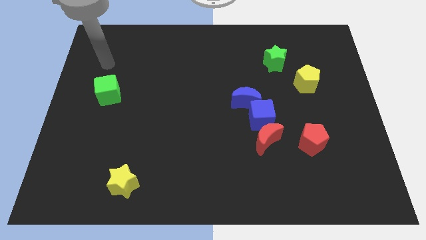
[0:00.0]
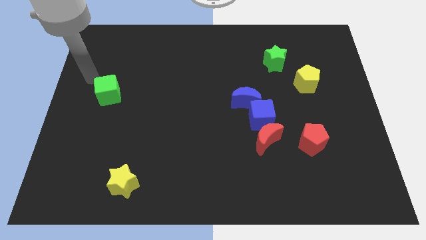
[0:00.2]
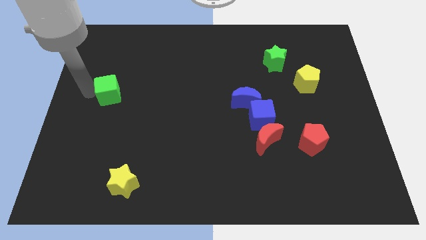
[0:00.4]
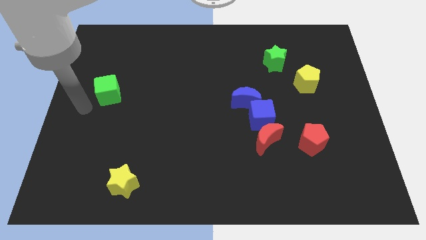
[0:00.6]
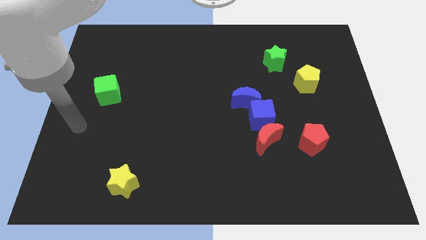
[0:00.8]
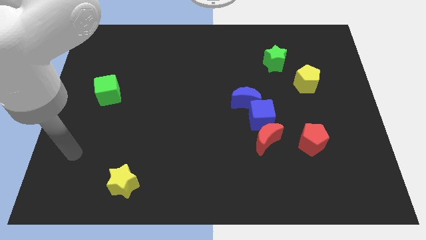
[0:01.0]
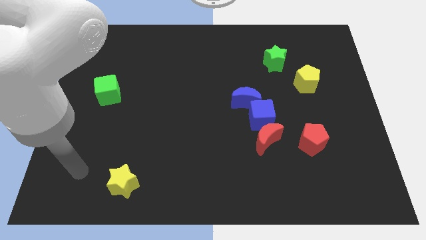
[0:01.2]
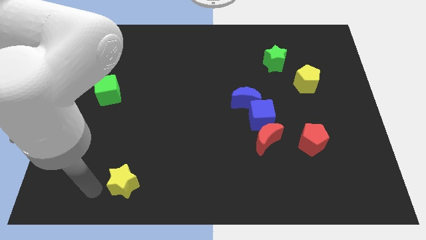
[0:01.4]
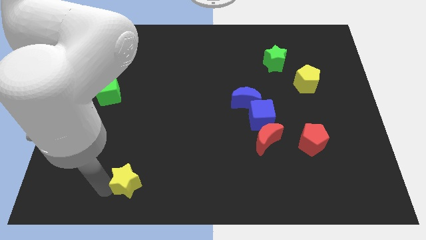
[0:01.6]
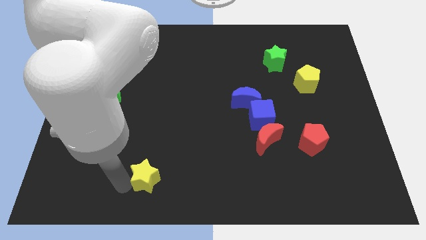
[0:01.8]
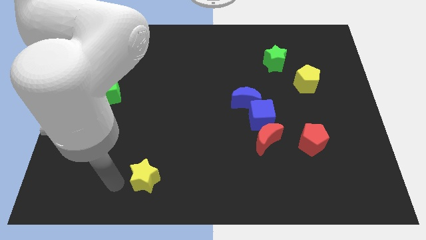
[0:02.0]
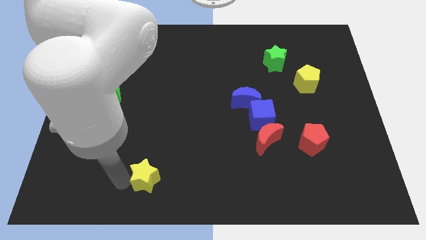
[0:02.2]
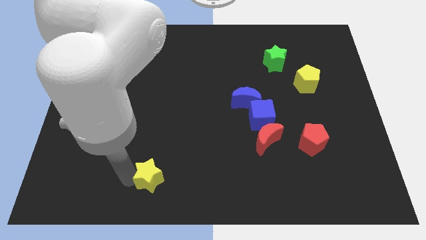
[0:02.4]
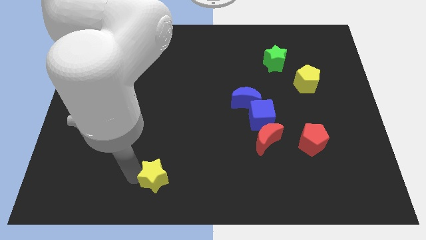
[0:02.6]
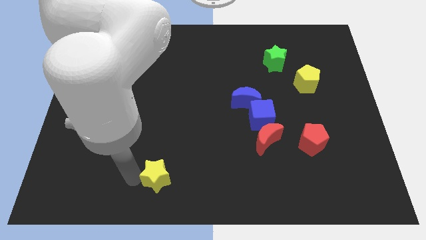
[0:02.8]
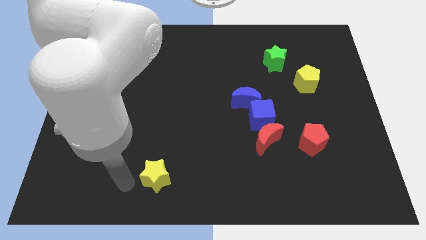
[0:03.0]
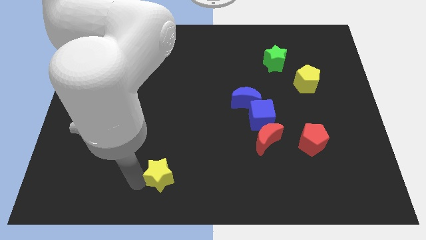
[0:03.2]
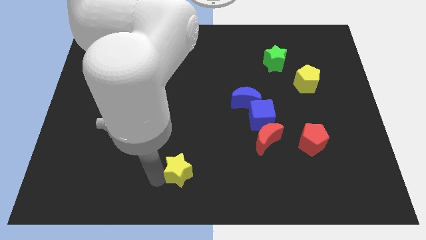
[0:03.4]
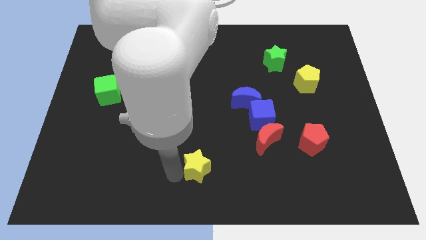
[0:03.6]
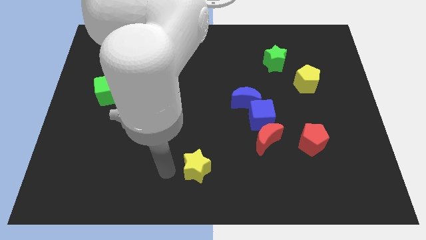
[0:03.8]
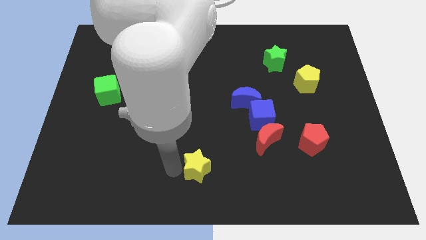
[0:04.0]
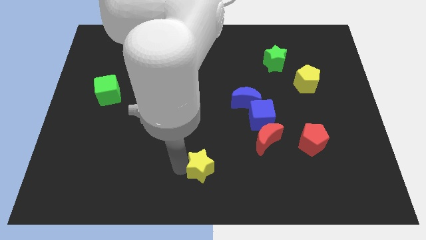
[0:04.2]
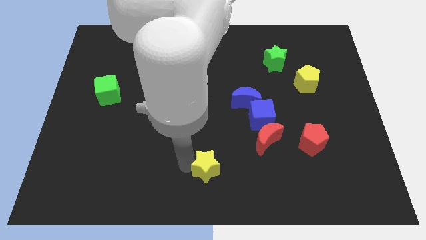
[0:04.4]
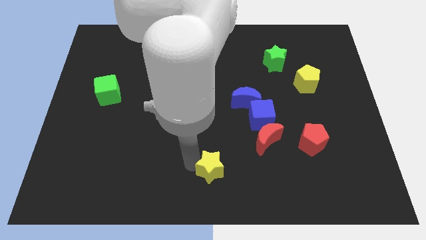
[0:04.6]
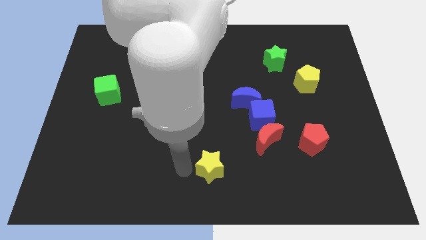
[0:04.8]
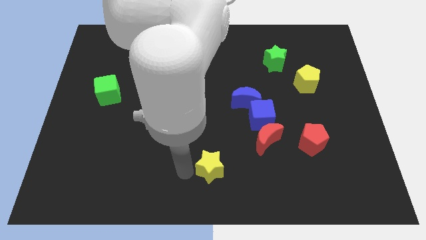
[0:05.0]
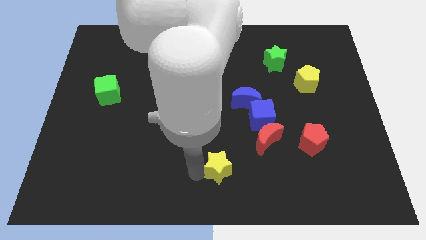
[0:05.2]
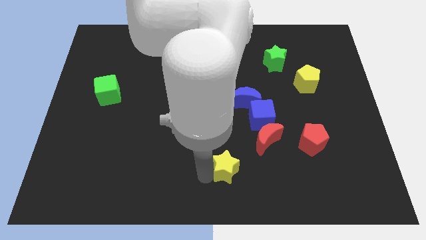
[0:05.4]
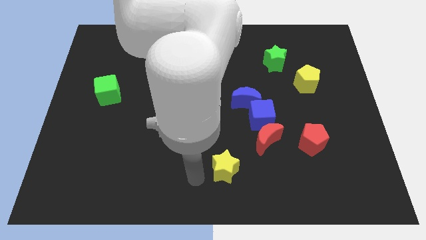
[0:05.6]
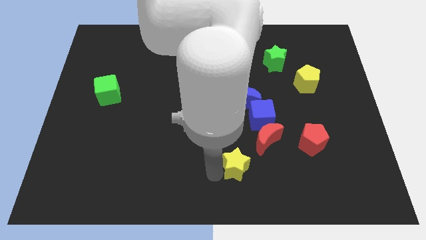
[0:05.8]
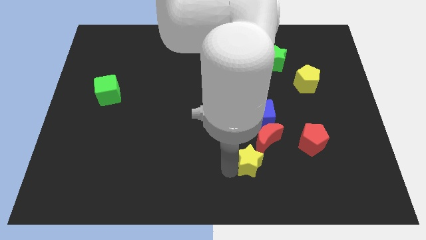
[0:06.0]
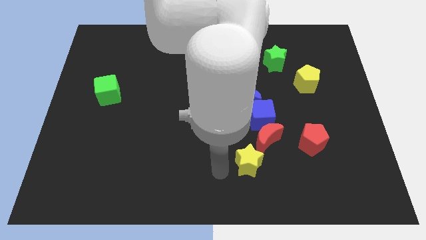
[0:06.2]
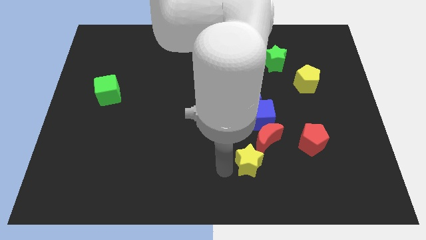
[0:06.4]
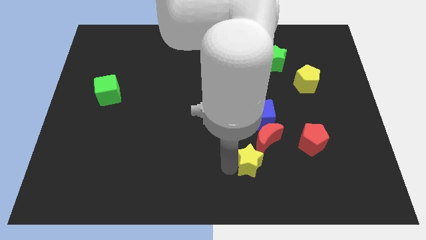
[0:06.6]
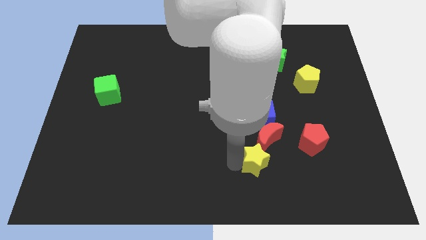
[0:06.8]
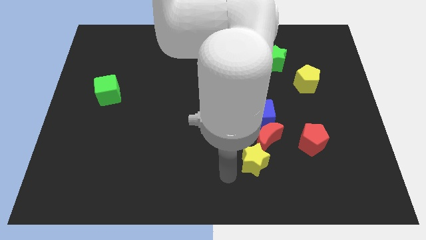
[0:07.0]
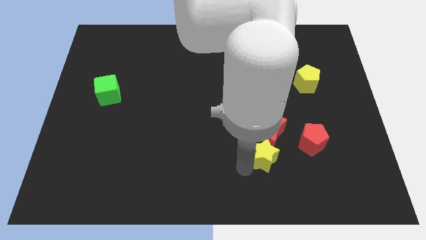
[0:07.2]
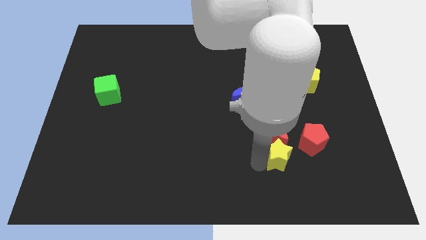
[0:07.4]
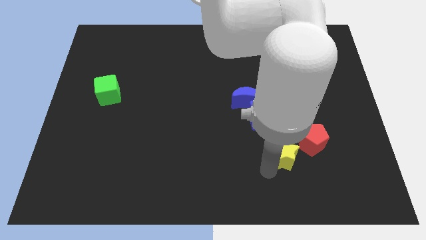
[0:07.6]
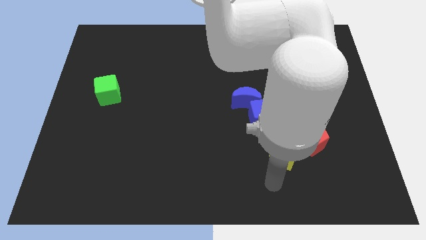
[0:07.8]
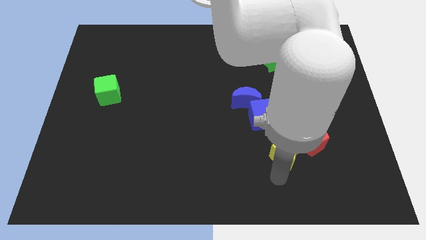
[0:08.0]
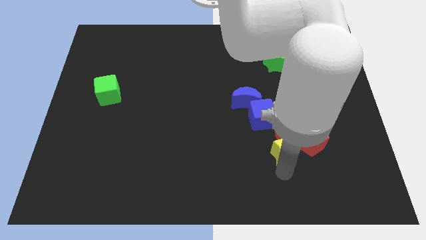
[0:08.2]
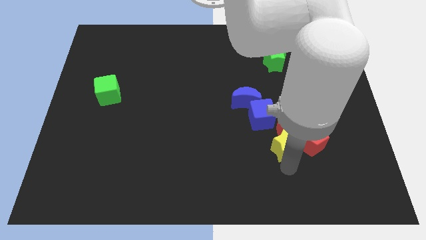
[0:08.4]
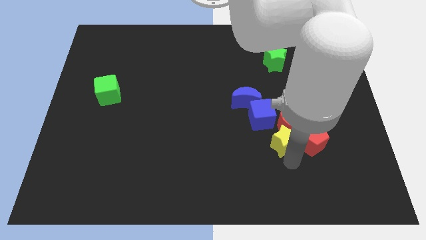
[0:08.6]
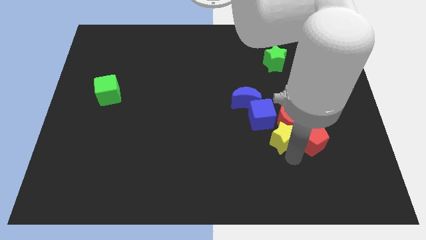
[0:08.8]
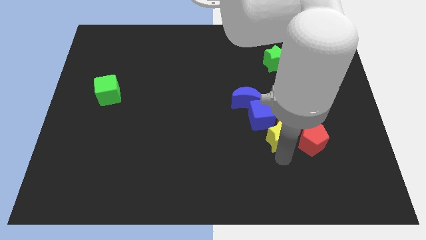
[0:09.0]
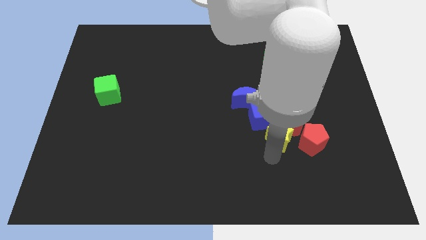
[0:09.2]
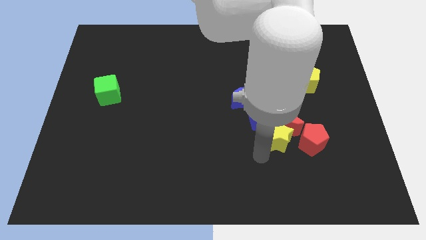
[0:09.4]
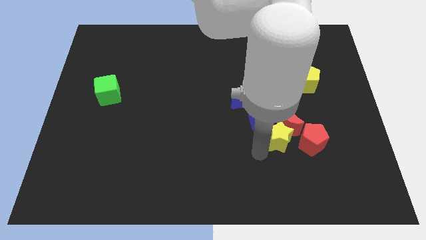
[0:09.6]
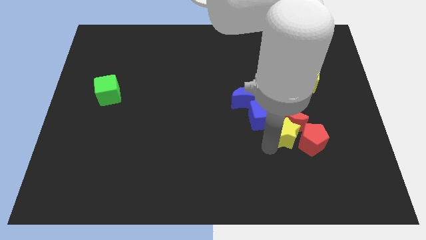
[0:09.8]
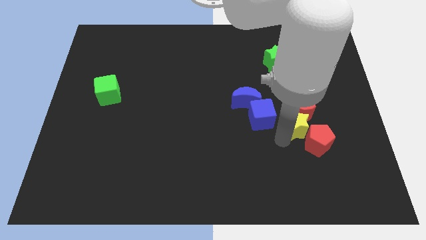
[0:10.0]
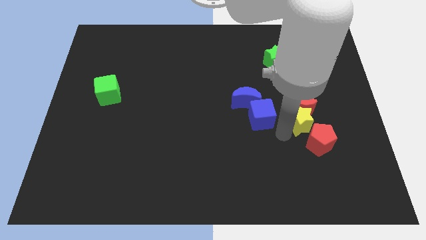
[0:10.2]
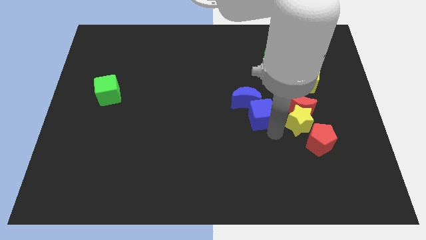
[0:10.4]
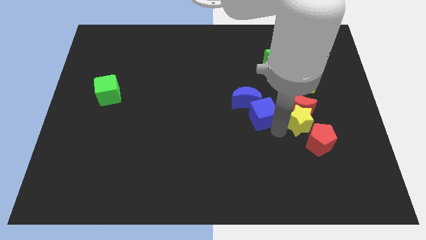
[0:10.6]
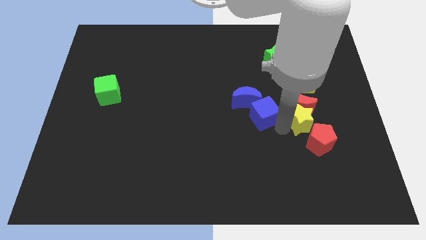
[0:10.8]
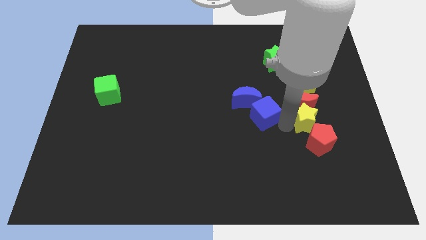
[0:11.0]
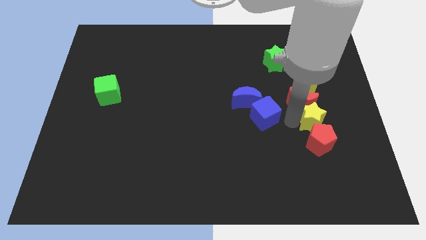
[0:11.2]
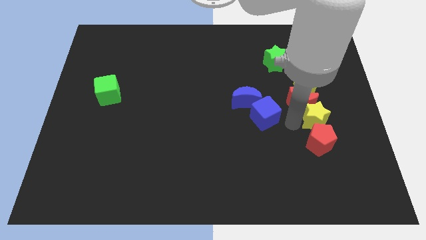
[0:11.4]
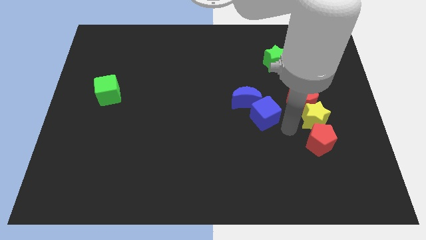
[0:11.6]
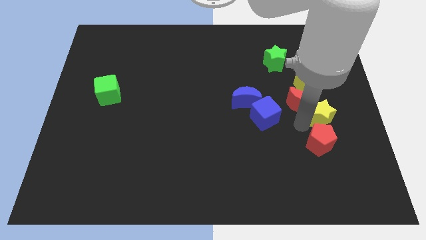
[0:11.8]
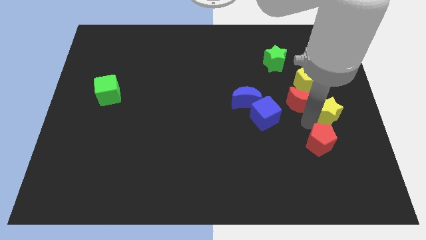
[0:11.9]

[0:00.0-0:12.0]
slide the yellow star to the right side of the board
